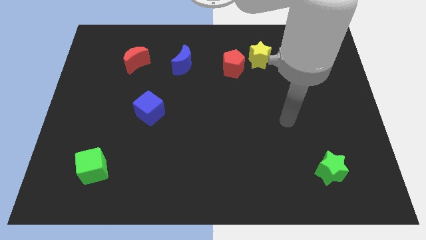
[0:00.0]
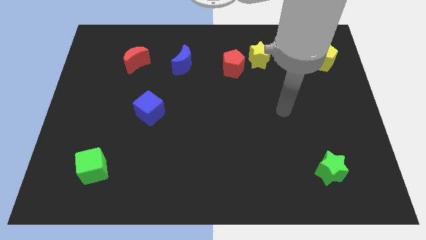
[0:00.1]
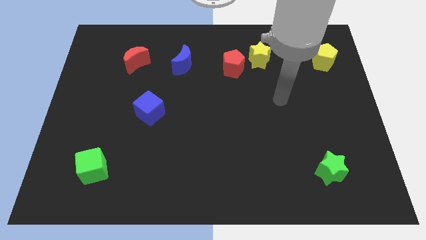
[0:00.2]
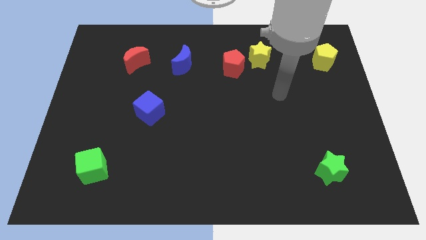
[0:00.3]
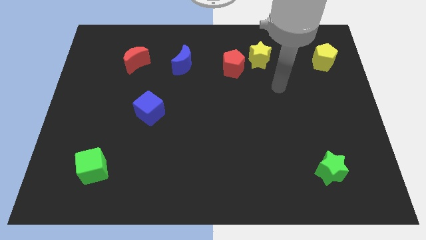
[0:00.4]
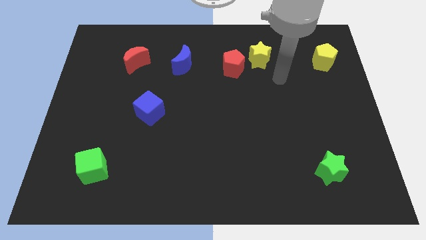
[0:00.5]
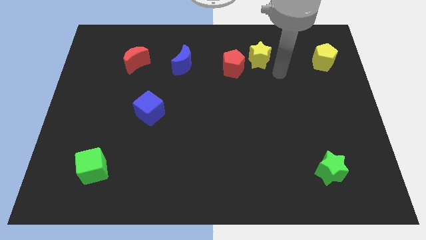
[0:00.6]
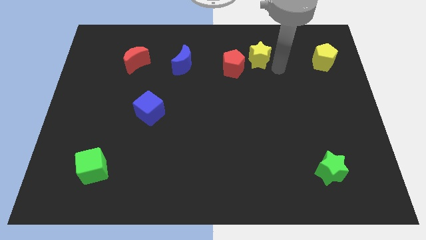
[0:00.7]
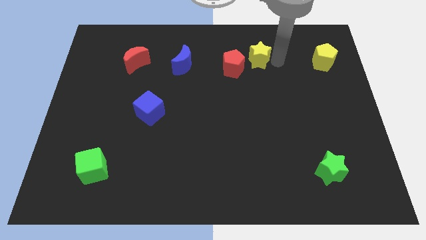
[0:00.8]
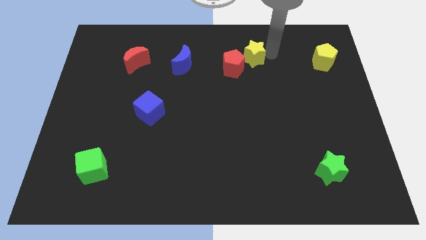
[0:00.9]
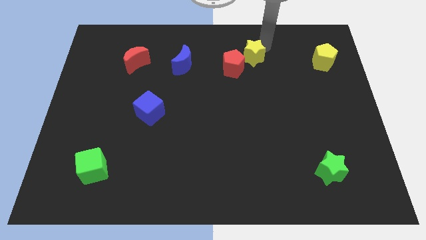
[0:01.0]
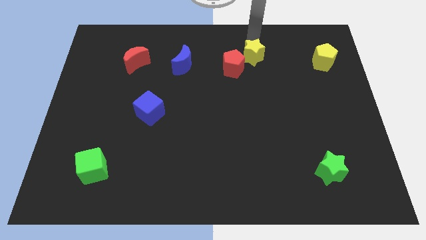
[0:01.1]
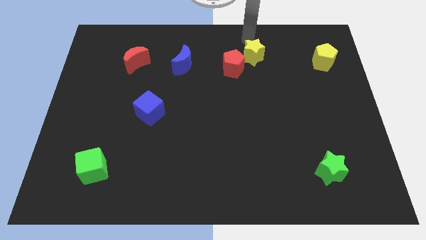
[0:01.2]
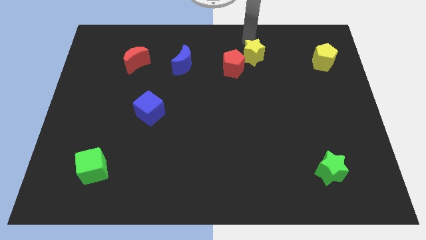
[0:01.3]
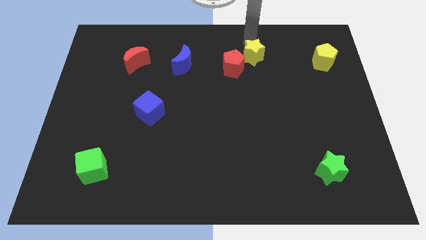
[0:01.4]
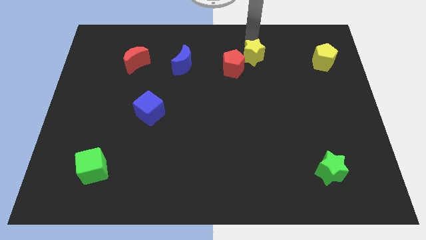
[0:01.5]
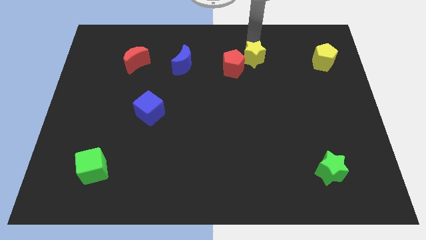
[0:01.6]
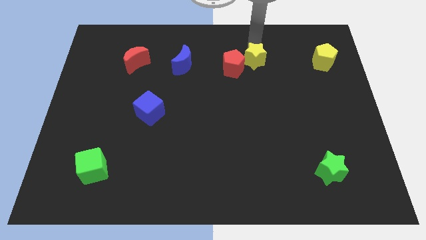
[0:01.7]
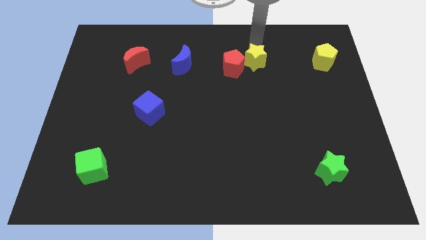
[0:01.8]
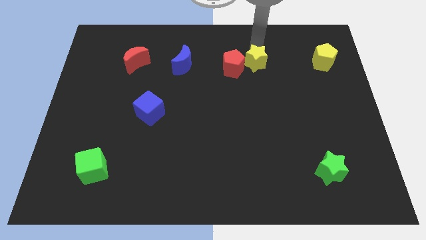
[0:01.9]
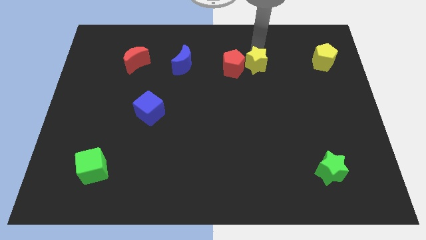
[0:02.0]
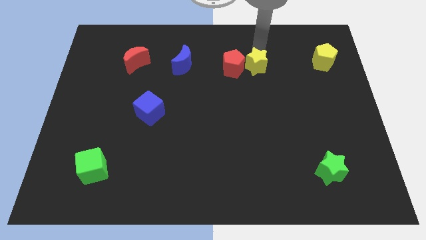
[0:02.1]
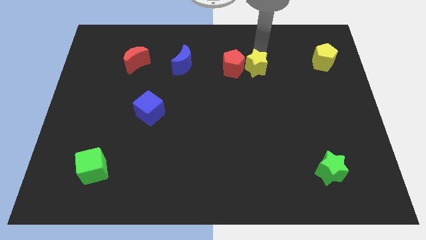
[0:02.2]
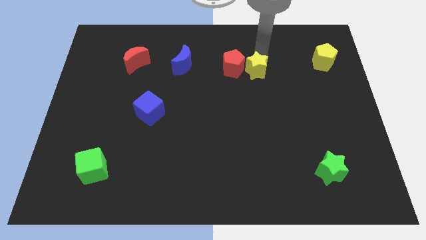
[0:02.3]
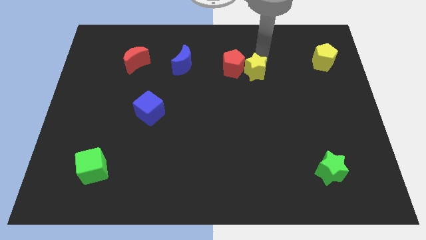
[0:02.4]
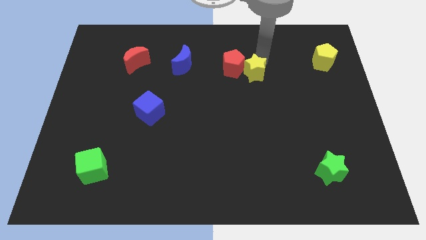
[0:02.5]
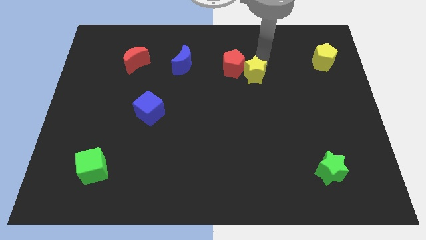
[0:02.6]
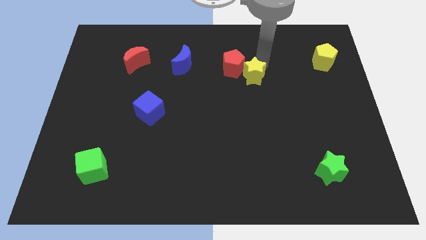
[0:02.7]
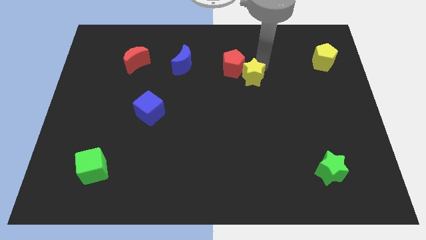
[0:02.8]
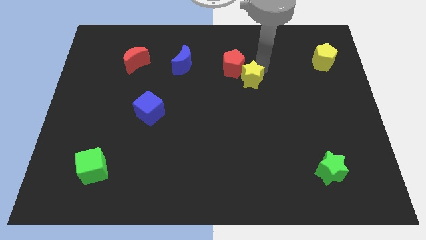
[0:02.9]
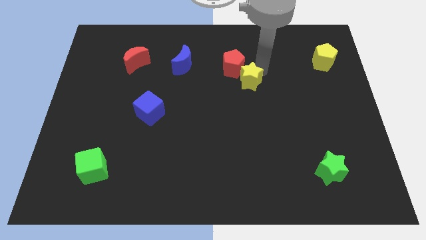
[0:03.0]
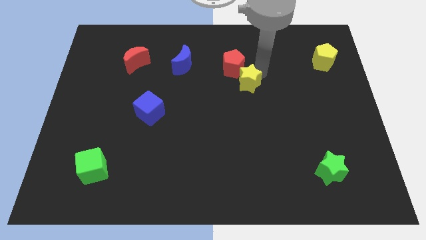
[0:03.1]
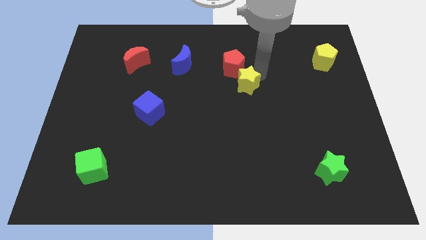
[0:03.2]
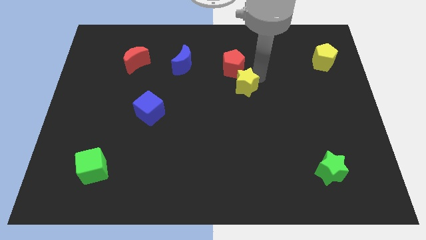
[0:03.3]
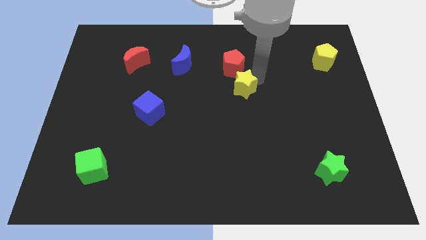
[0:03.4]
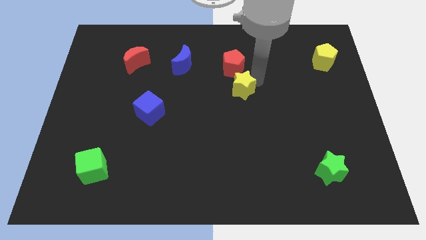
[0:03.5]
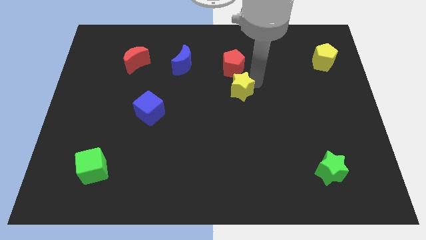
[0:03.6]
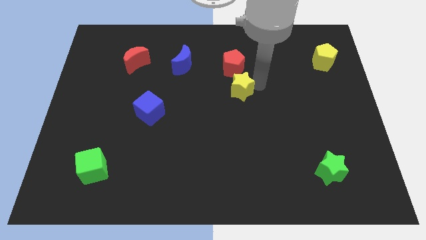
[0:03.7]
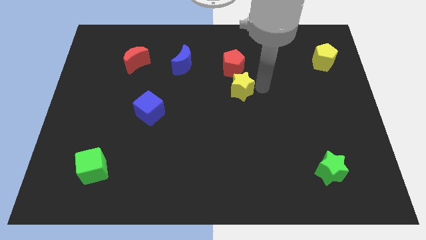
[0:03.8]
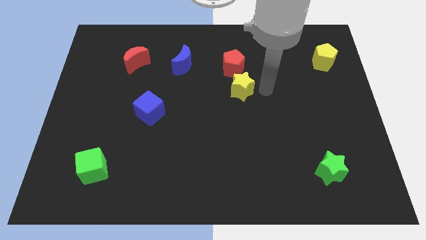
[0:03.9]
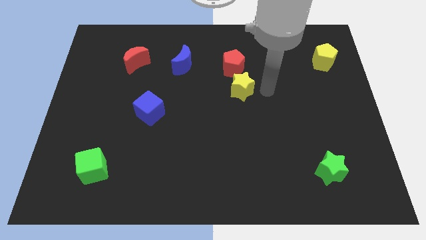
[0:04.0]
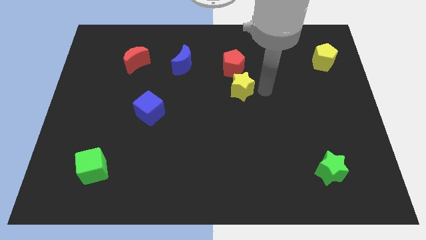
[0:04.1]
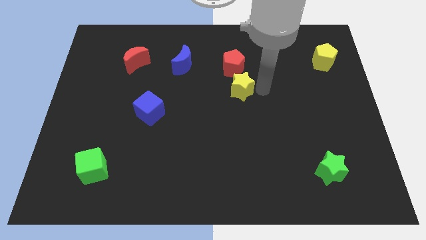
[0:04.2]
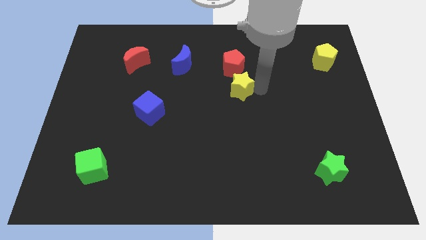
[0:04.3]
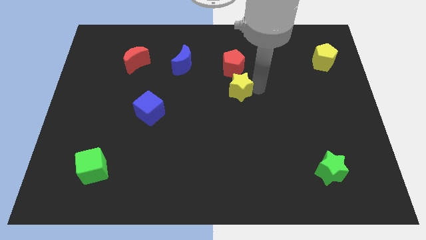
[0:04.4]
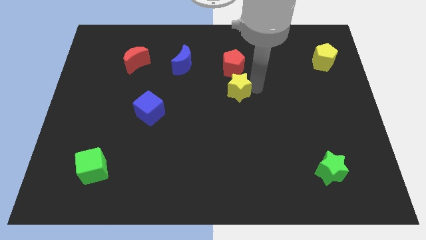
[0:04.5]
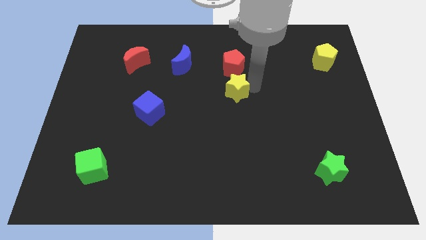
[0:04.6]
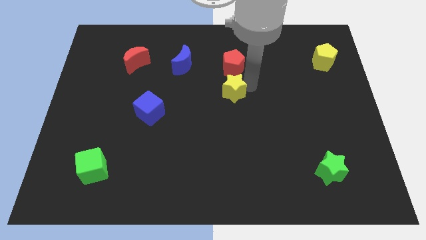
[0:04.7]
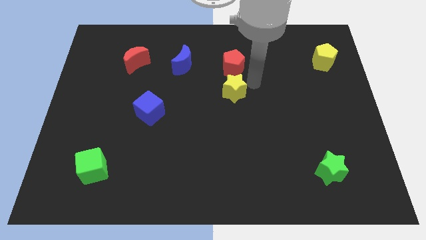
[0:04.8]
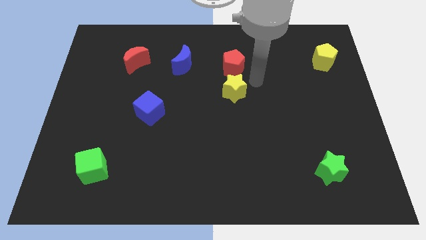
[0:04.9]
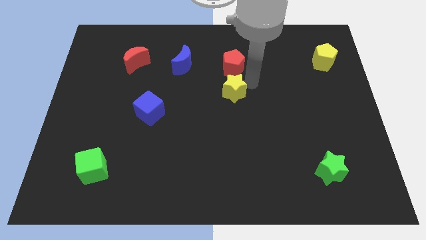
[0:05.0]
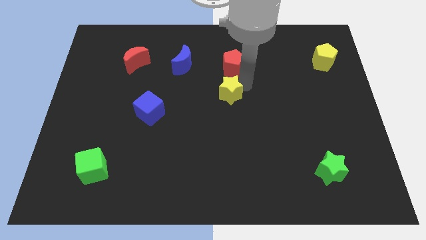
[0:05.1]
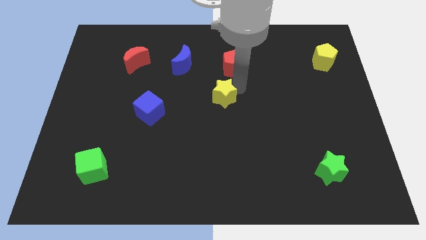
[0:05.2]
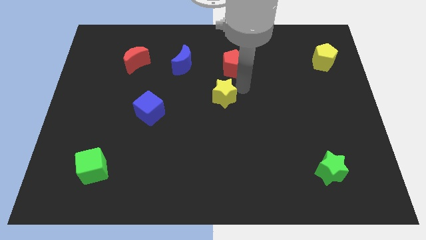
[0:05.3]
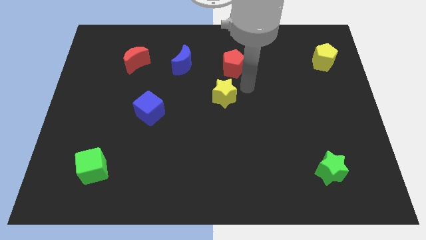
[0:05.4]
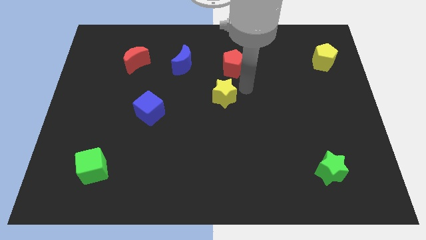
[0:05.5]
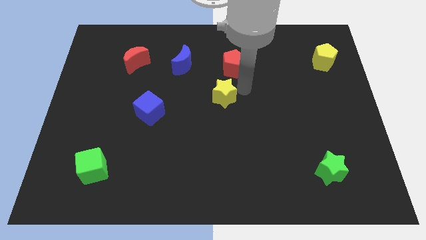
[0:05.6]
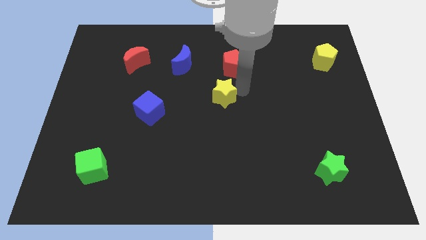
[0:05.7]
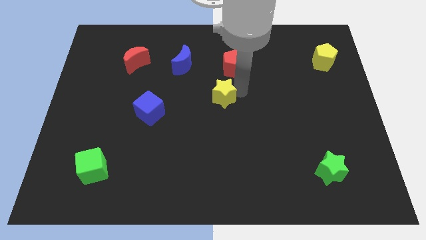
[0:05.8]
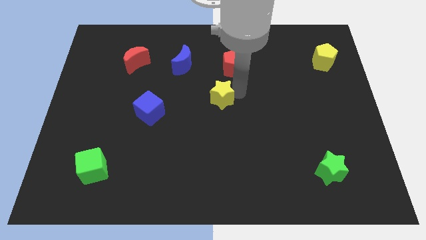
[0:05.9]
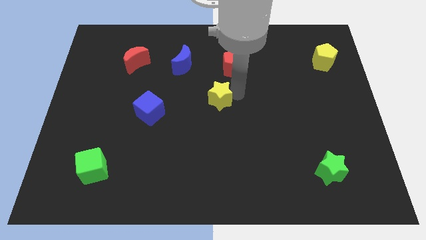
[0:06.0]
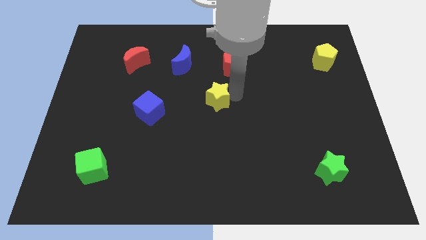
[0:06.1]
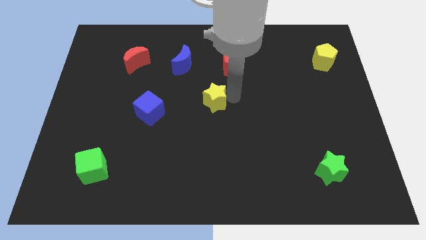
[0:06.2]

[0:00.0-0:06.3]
move the yellow star to the right side of the blue cube
